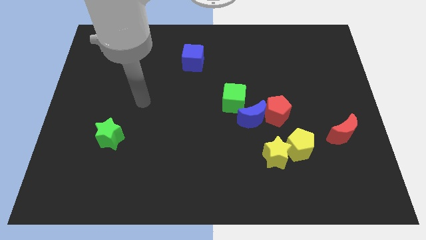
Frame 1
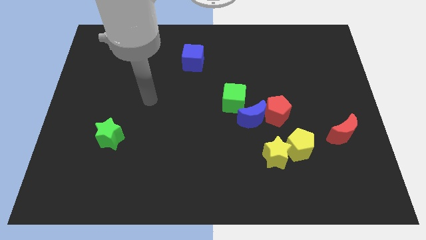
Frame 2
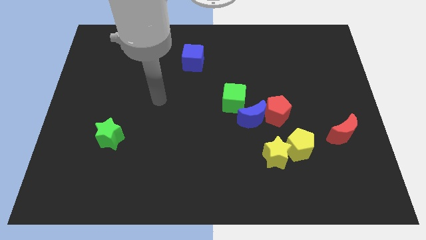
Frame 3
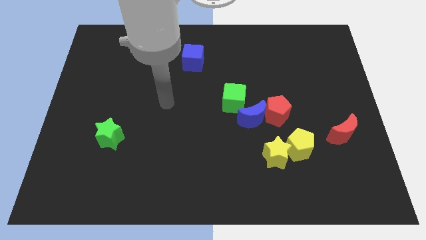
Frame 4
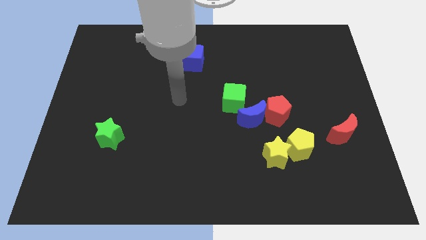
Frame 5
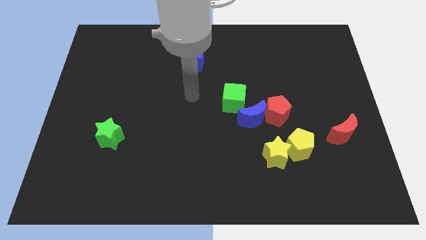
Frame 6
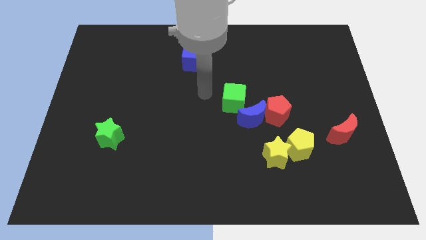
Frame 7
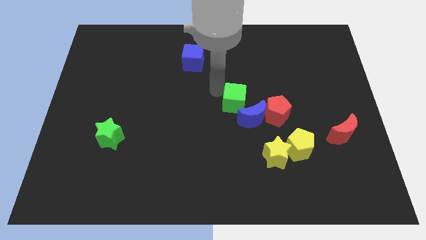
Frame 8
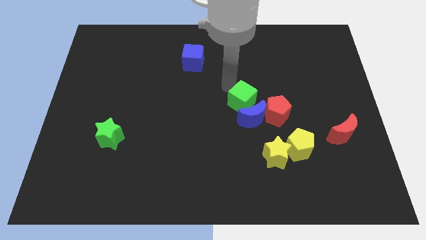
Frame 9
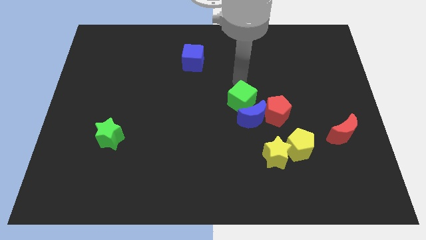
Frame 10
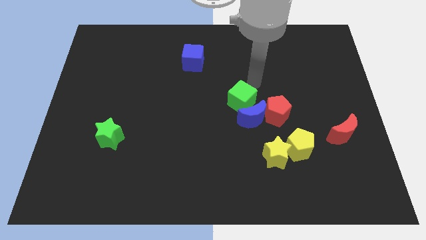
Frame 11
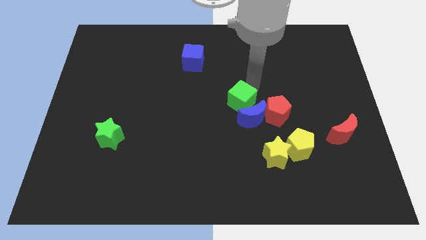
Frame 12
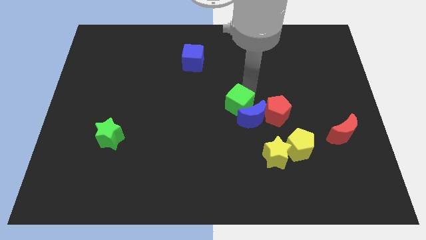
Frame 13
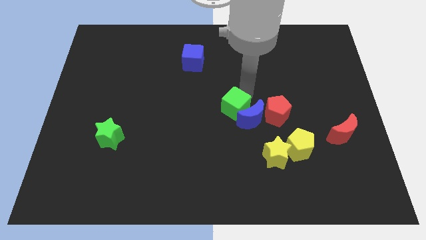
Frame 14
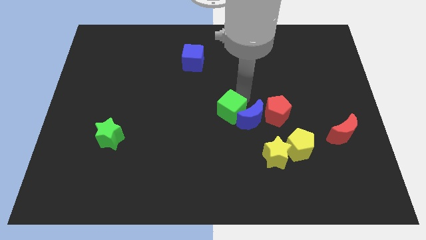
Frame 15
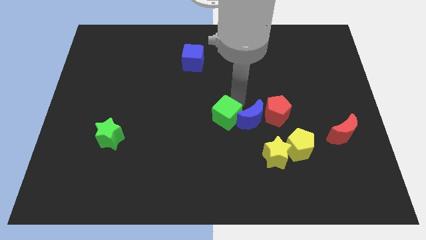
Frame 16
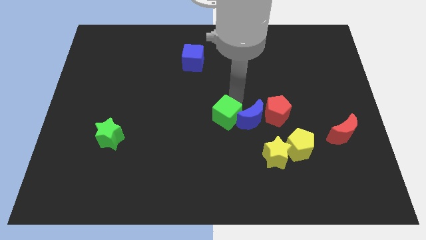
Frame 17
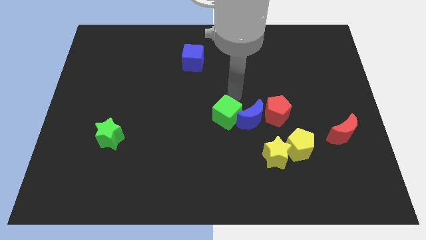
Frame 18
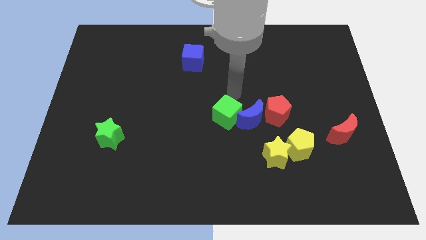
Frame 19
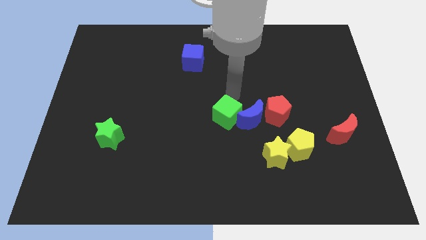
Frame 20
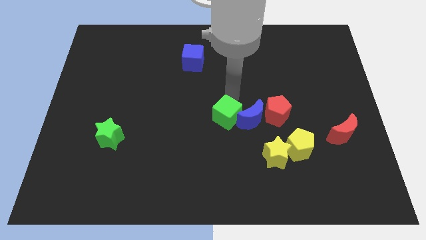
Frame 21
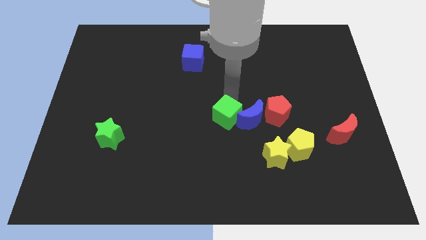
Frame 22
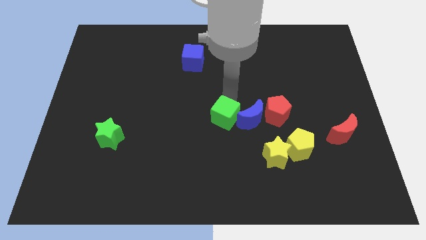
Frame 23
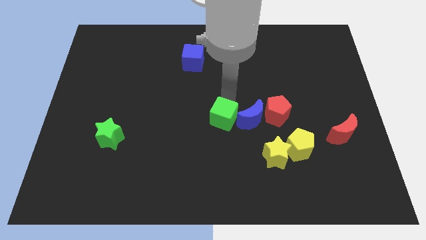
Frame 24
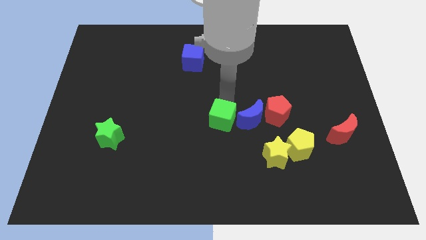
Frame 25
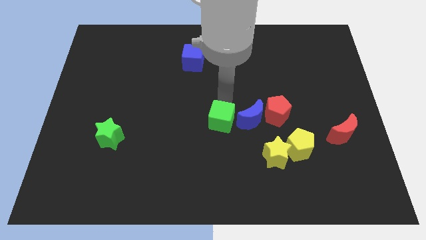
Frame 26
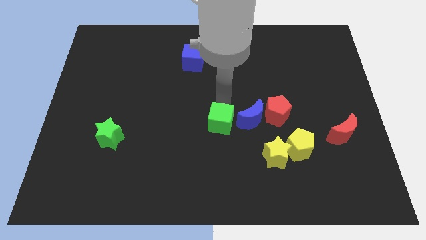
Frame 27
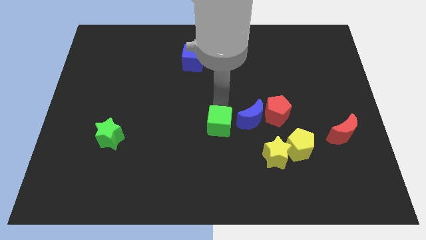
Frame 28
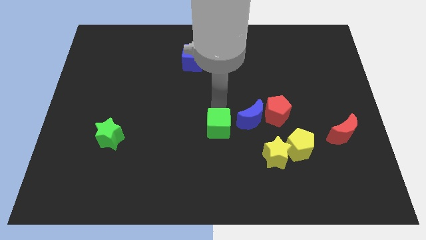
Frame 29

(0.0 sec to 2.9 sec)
slightly slide the green cube downwards

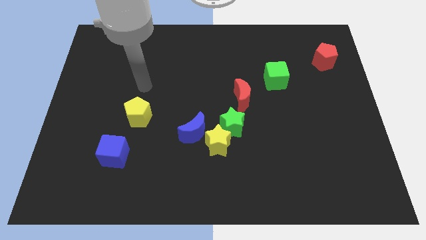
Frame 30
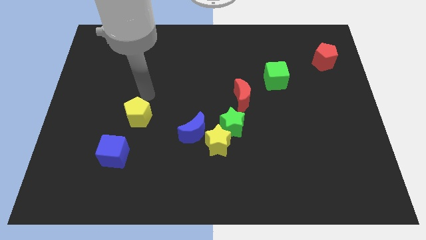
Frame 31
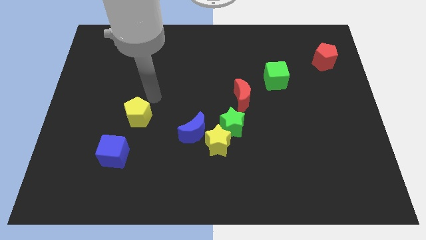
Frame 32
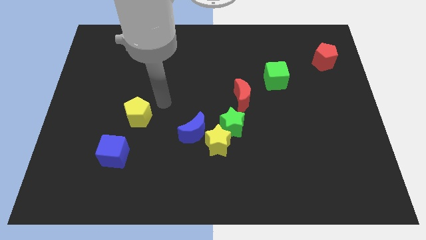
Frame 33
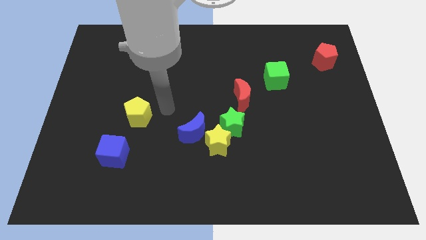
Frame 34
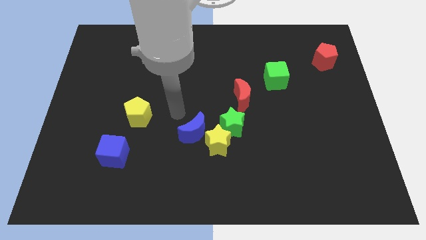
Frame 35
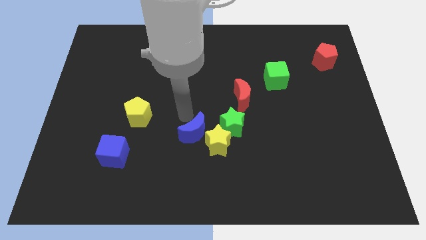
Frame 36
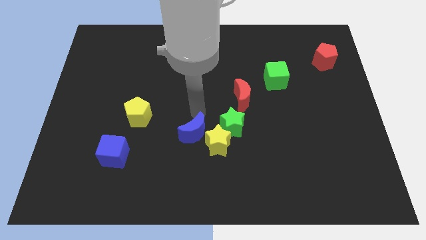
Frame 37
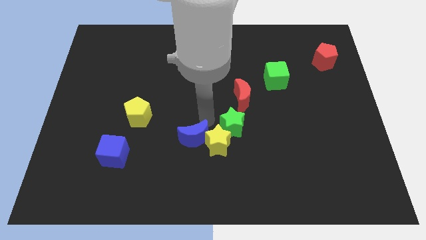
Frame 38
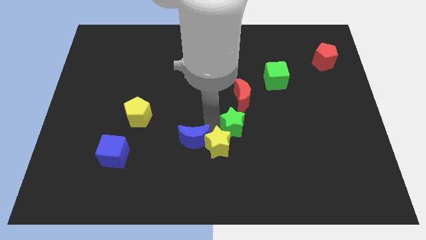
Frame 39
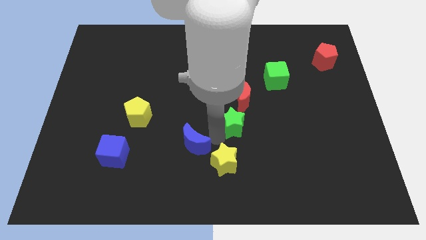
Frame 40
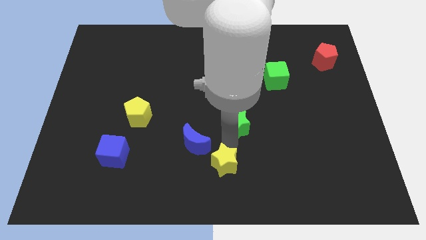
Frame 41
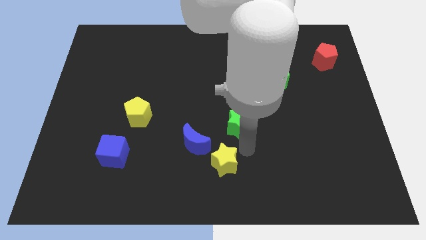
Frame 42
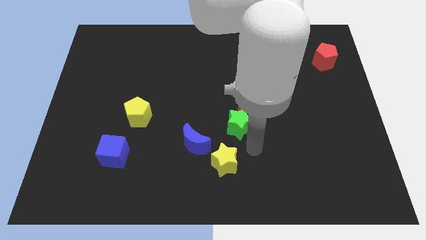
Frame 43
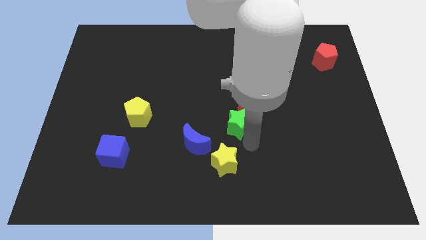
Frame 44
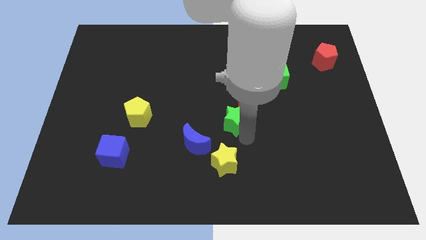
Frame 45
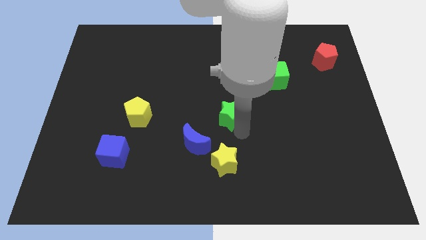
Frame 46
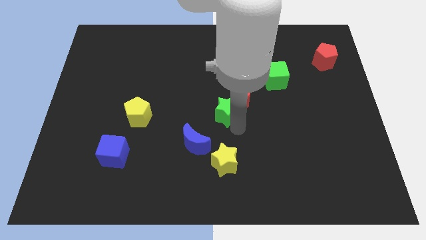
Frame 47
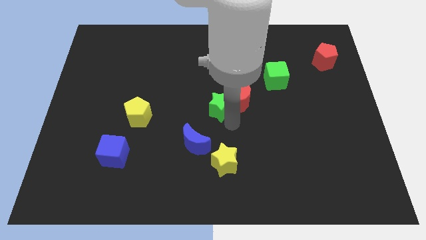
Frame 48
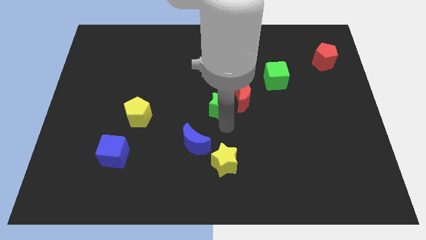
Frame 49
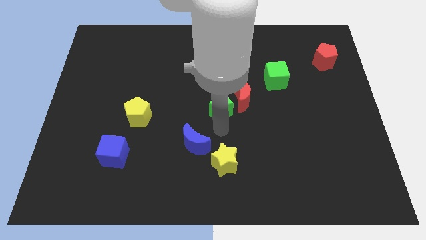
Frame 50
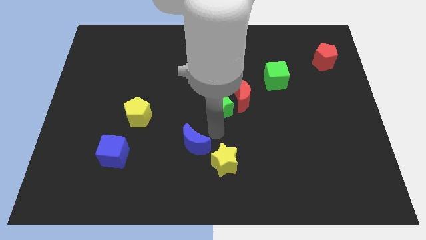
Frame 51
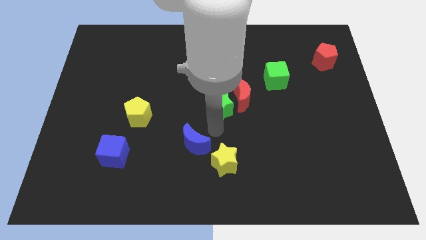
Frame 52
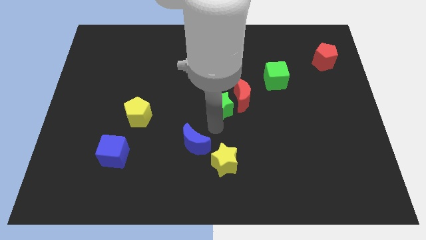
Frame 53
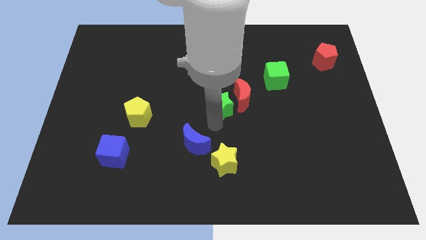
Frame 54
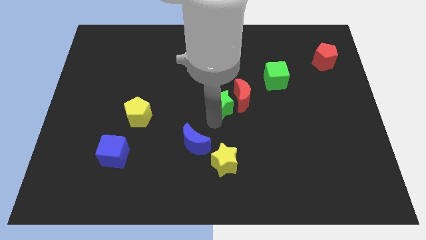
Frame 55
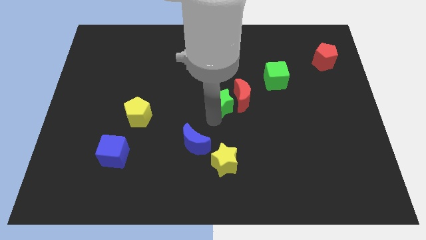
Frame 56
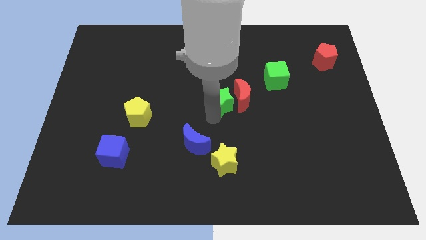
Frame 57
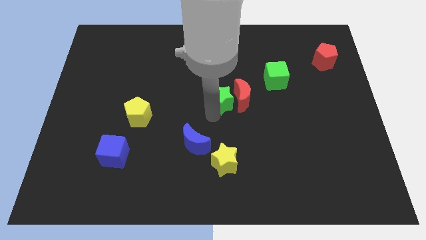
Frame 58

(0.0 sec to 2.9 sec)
move the green star a little bit up

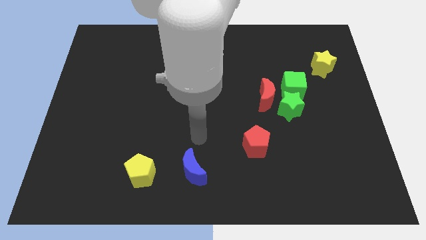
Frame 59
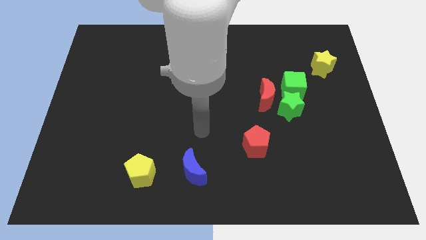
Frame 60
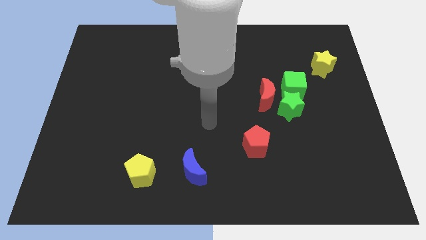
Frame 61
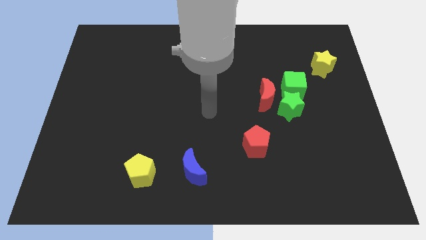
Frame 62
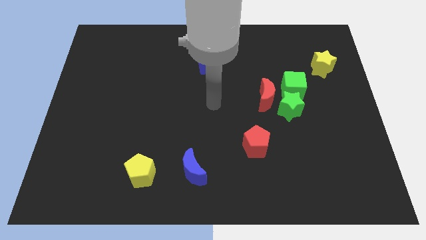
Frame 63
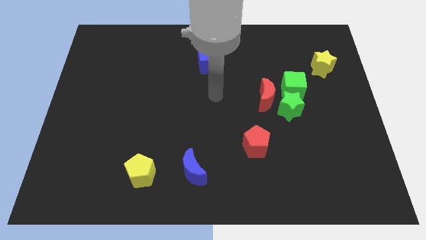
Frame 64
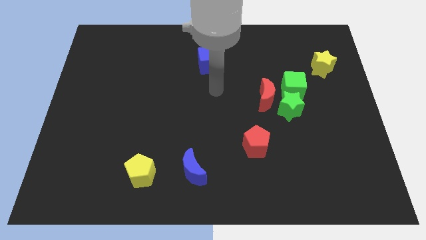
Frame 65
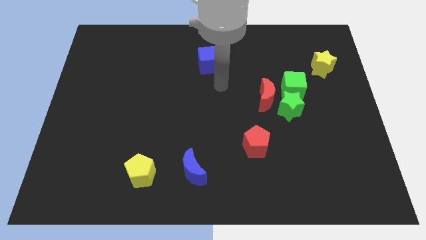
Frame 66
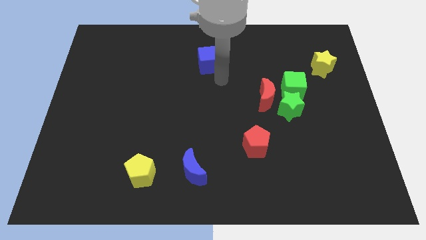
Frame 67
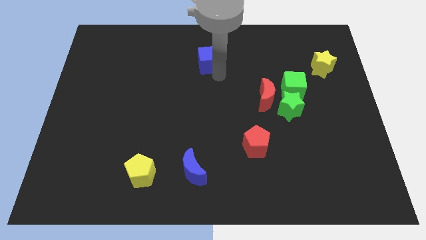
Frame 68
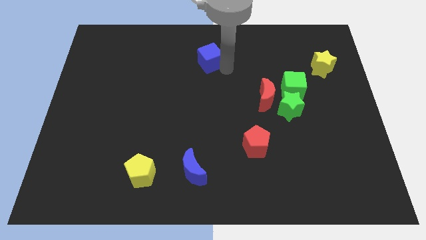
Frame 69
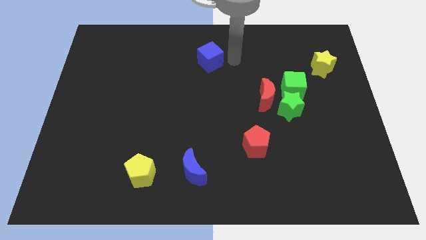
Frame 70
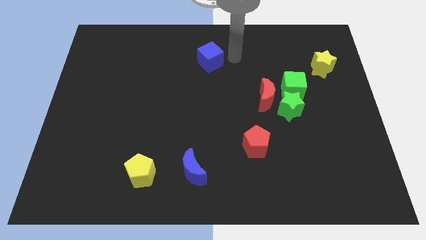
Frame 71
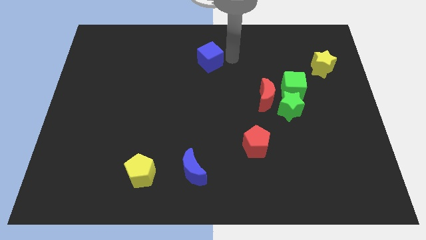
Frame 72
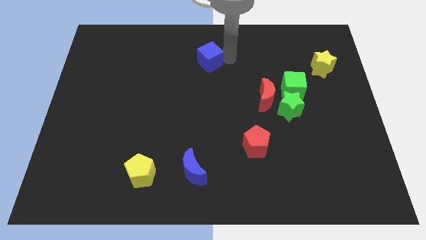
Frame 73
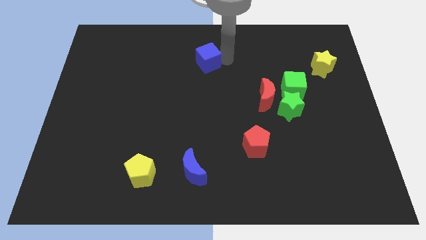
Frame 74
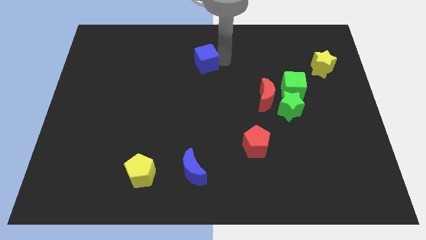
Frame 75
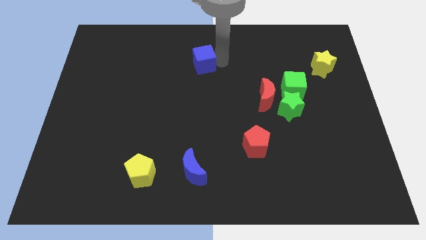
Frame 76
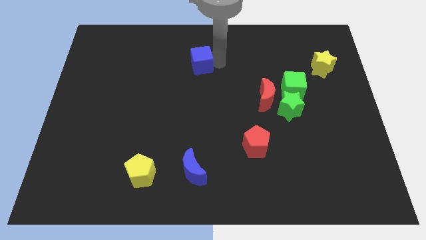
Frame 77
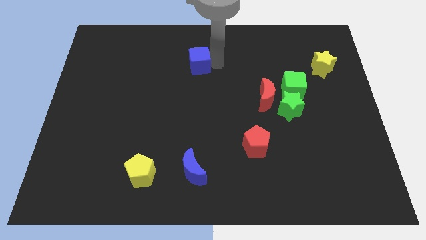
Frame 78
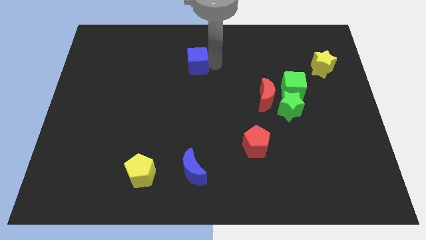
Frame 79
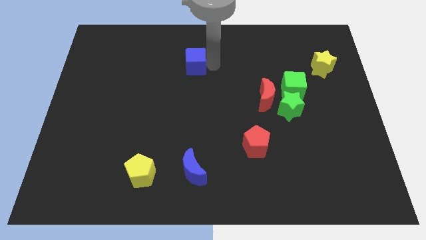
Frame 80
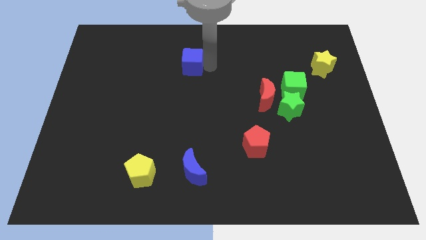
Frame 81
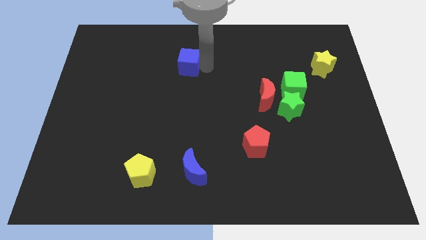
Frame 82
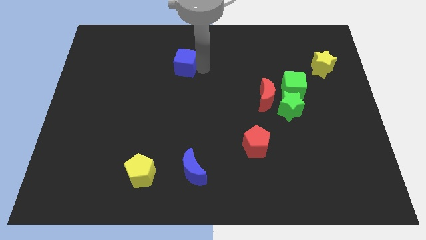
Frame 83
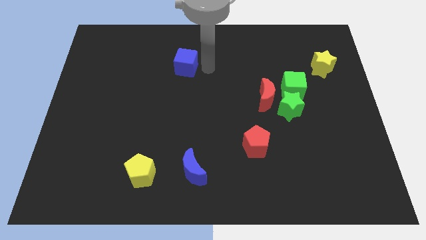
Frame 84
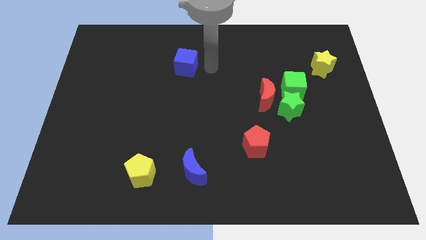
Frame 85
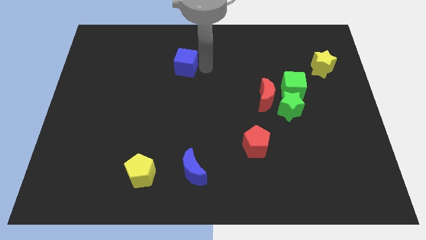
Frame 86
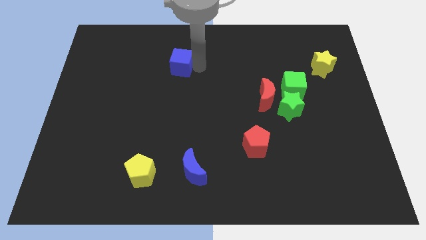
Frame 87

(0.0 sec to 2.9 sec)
push the blue cube left somewhat
